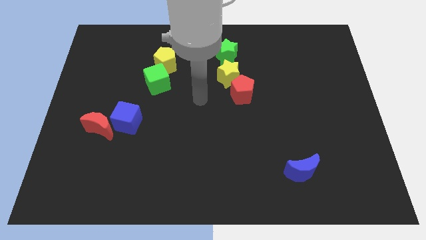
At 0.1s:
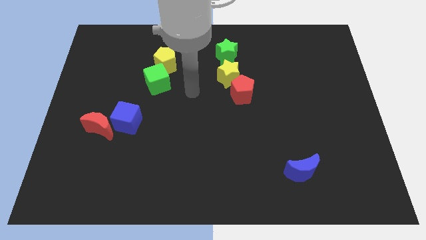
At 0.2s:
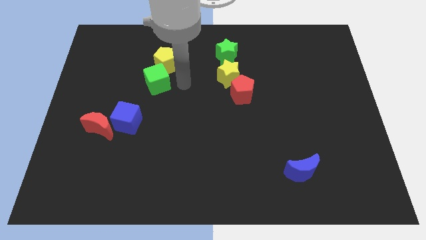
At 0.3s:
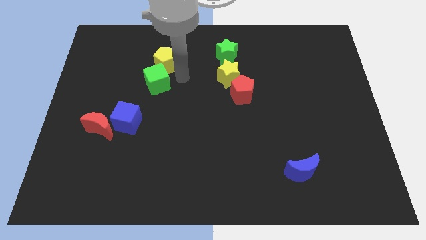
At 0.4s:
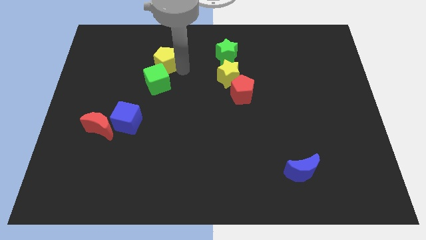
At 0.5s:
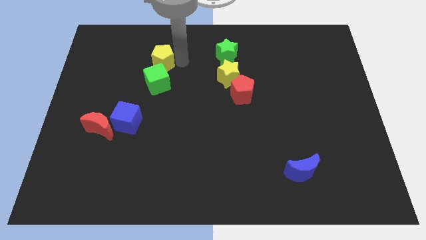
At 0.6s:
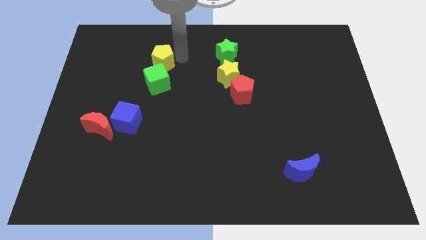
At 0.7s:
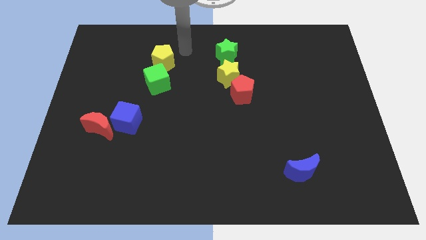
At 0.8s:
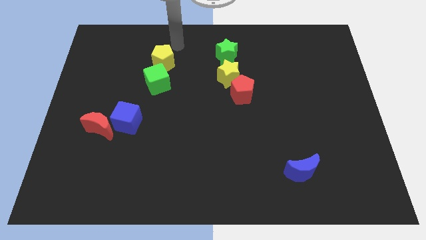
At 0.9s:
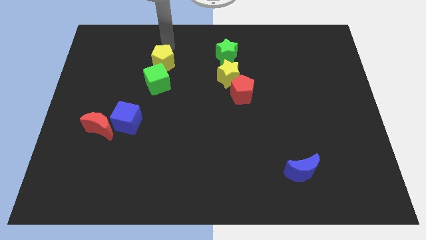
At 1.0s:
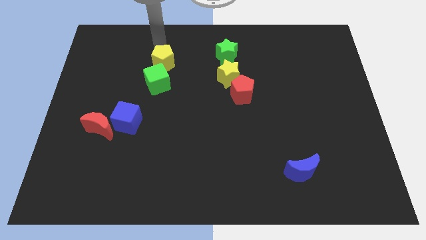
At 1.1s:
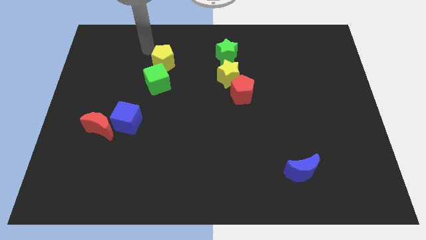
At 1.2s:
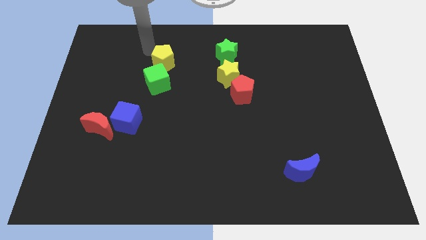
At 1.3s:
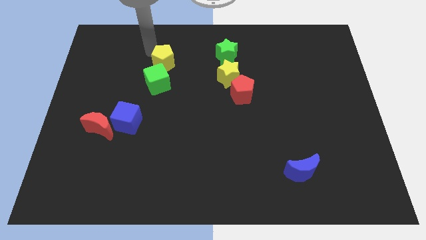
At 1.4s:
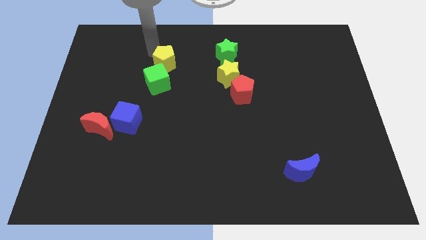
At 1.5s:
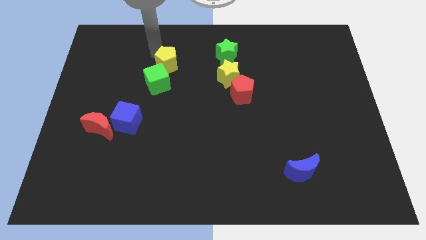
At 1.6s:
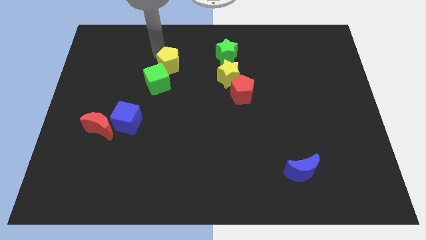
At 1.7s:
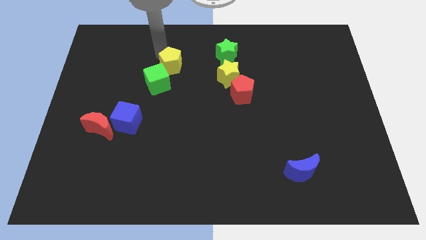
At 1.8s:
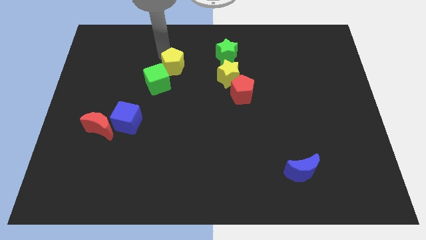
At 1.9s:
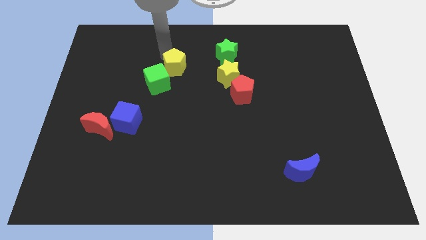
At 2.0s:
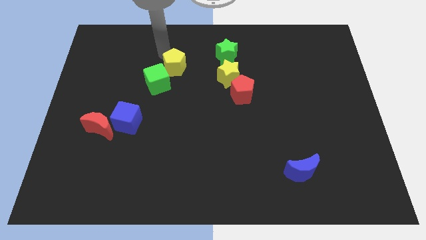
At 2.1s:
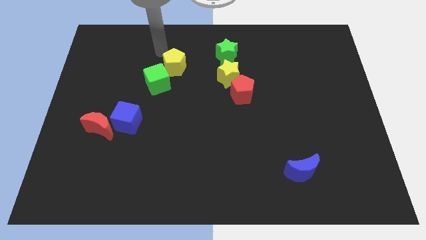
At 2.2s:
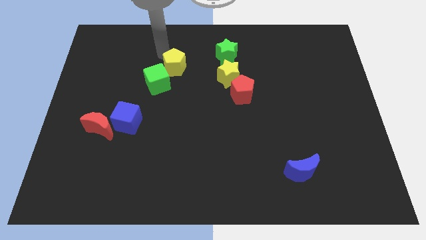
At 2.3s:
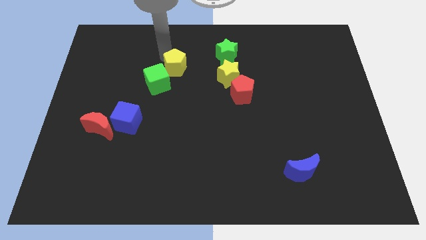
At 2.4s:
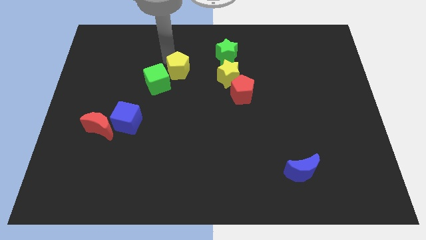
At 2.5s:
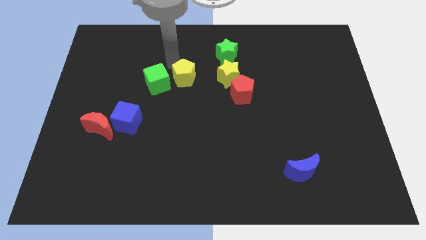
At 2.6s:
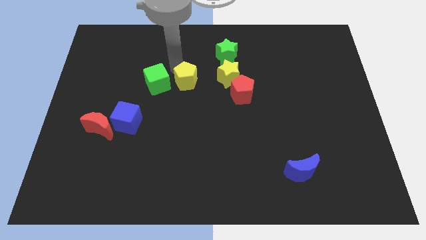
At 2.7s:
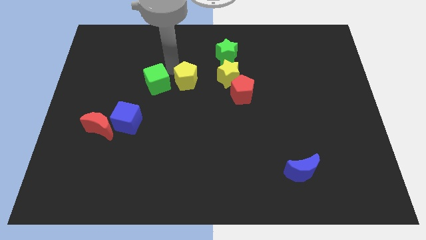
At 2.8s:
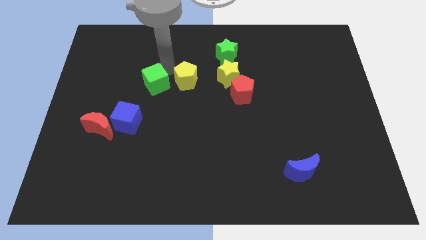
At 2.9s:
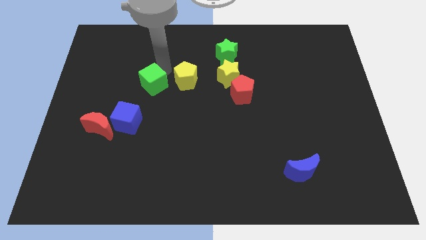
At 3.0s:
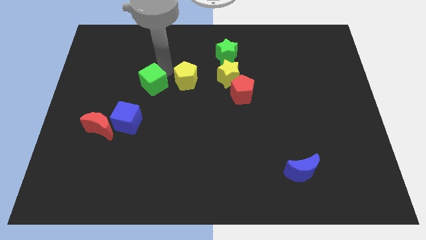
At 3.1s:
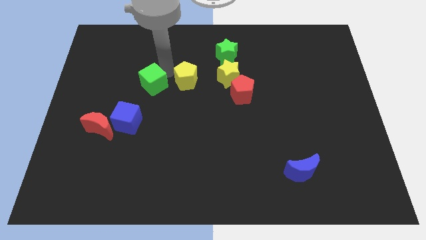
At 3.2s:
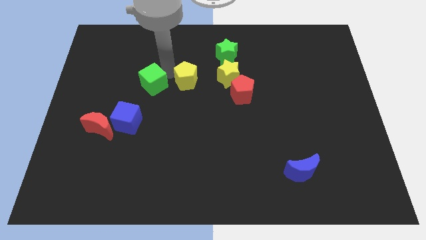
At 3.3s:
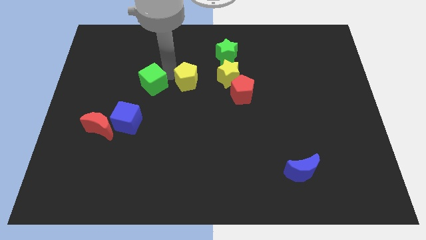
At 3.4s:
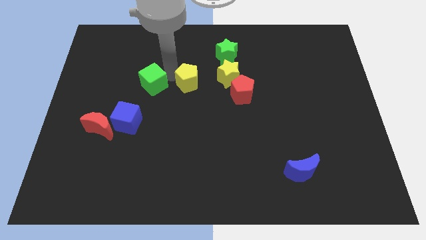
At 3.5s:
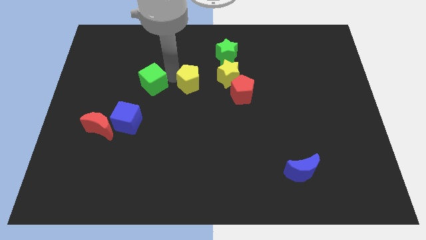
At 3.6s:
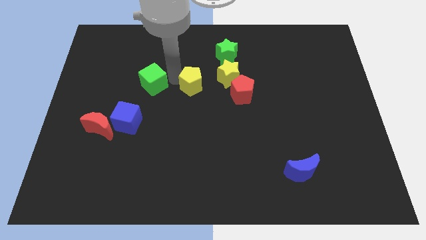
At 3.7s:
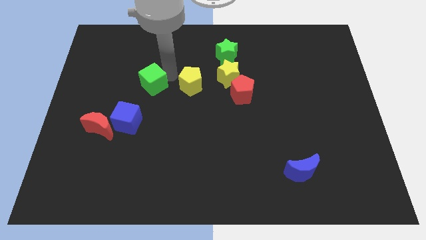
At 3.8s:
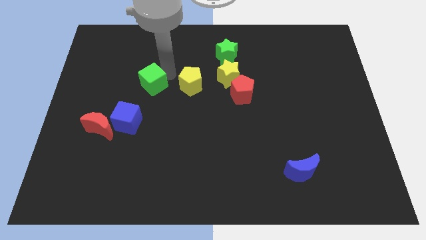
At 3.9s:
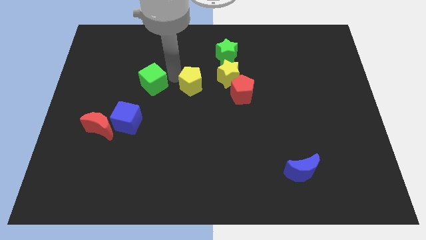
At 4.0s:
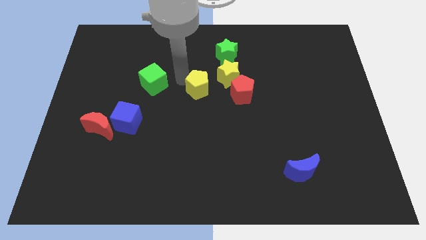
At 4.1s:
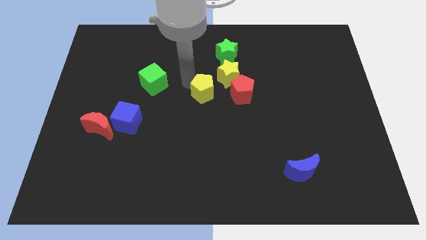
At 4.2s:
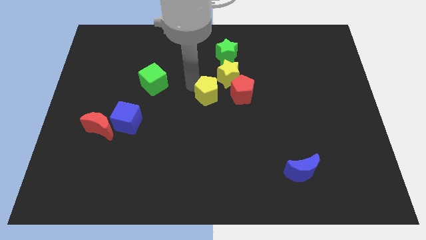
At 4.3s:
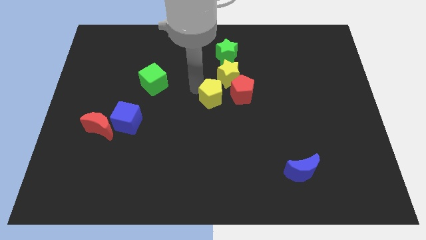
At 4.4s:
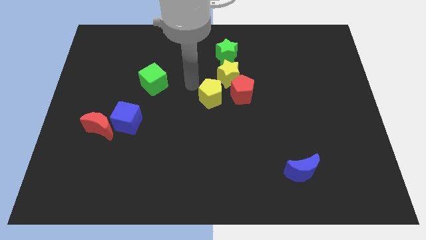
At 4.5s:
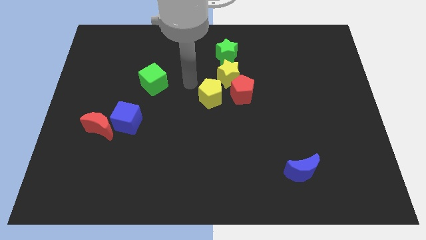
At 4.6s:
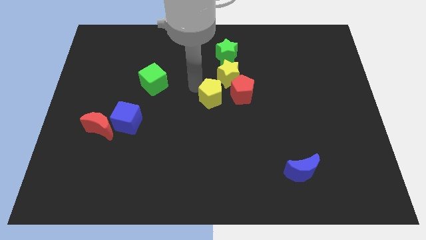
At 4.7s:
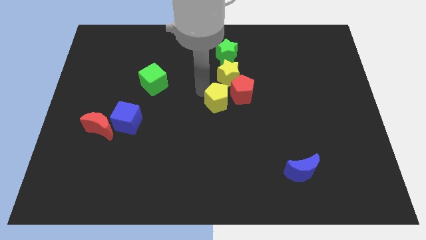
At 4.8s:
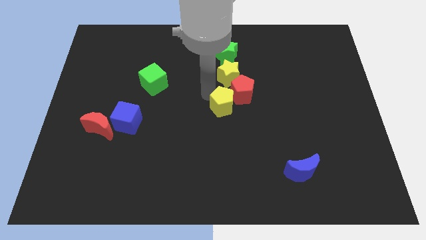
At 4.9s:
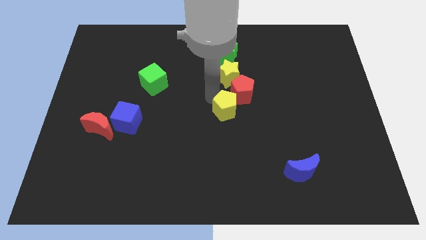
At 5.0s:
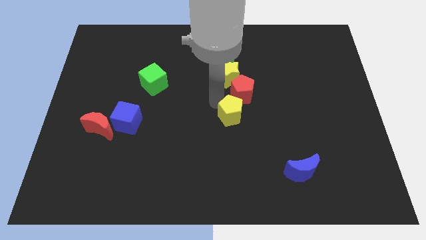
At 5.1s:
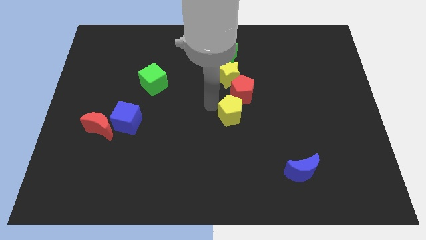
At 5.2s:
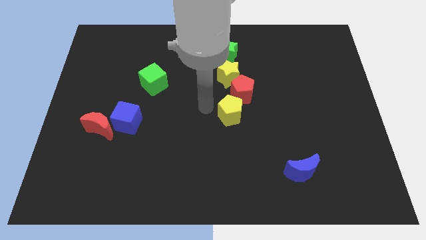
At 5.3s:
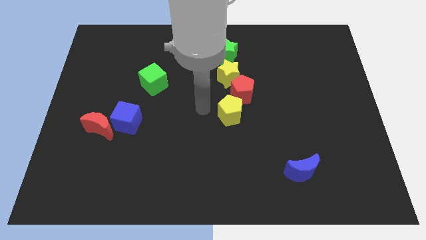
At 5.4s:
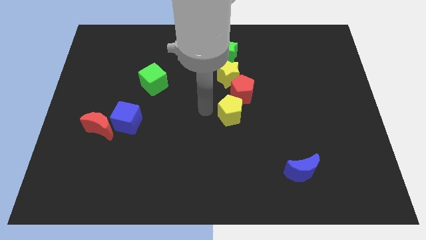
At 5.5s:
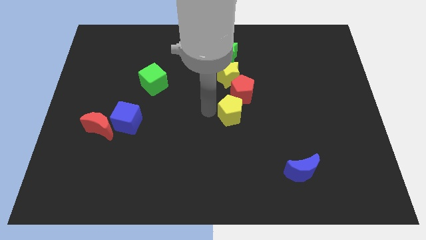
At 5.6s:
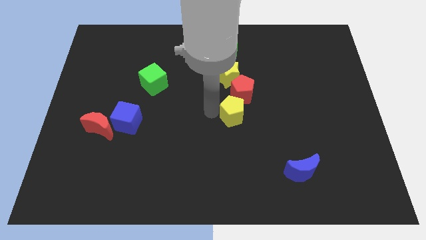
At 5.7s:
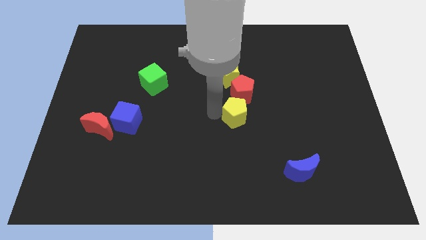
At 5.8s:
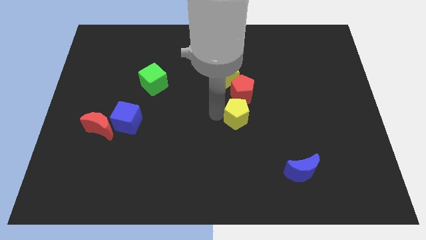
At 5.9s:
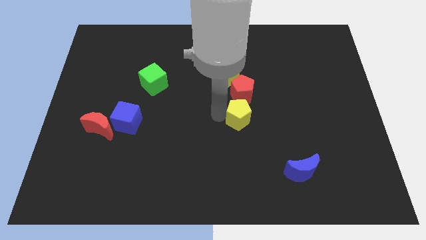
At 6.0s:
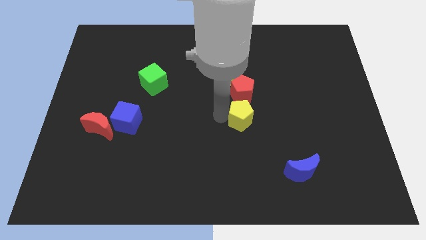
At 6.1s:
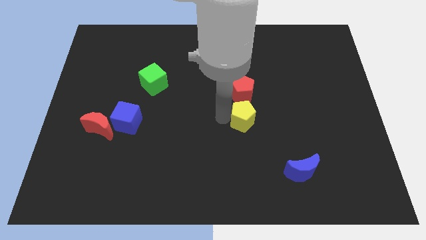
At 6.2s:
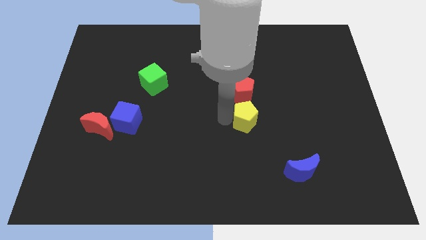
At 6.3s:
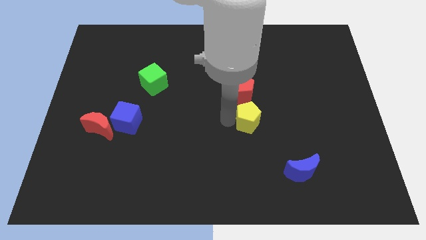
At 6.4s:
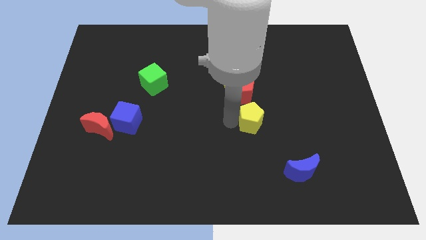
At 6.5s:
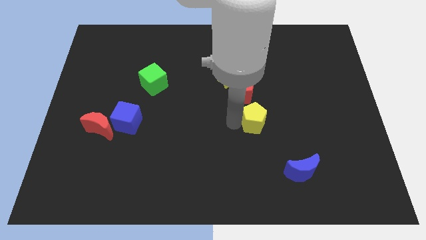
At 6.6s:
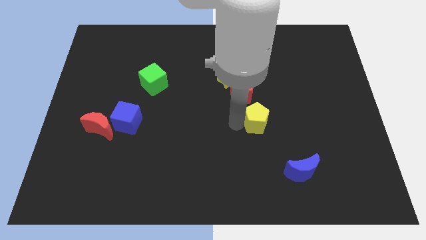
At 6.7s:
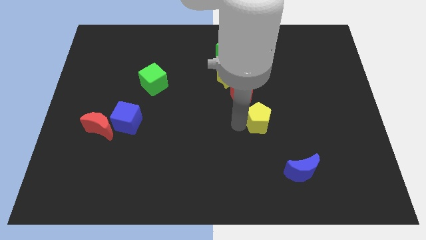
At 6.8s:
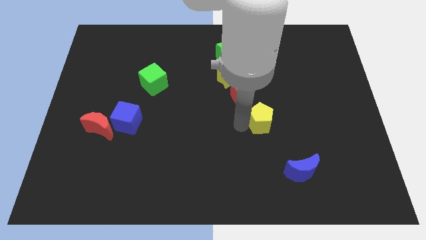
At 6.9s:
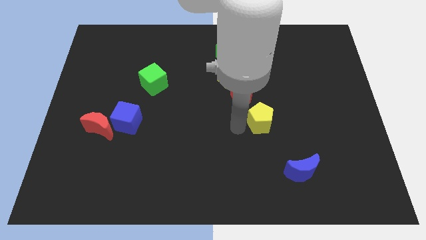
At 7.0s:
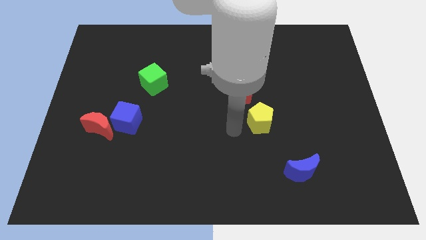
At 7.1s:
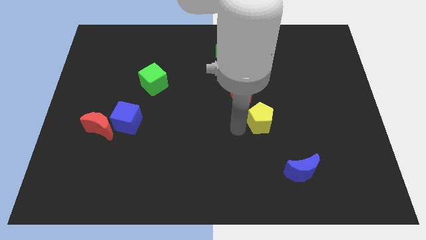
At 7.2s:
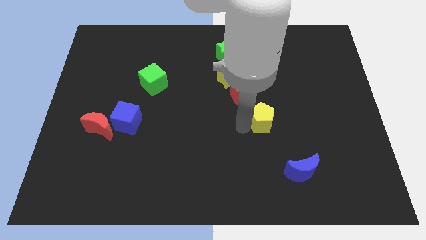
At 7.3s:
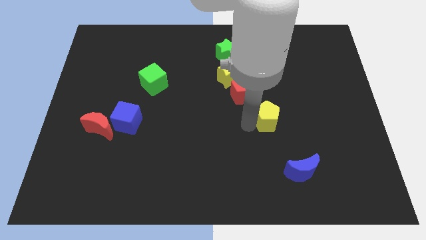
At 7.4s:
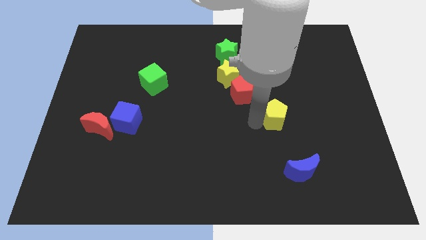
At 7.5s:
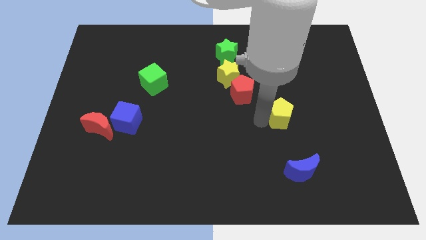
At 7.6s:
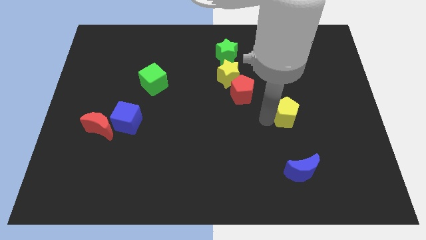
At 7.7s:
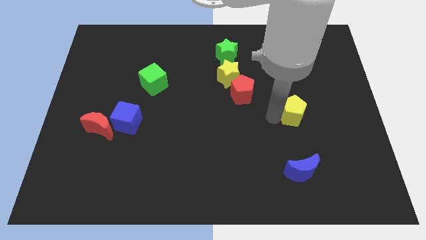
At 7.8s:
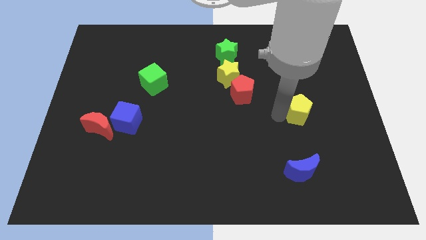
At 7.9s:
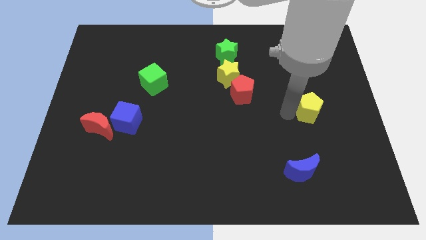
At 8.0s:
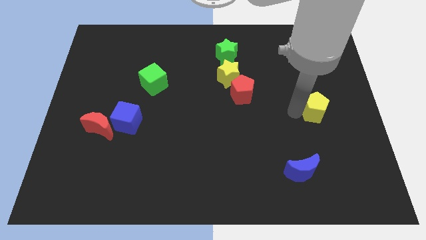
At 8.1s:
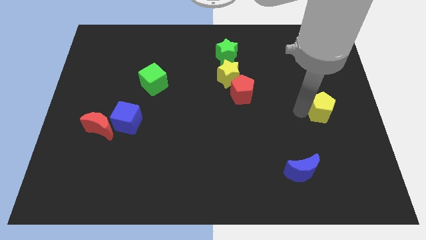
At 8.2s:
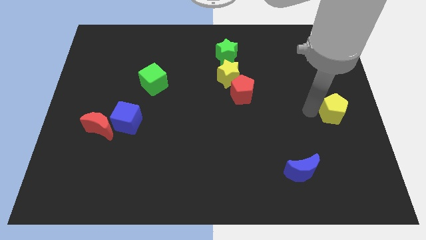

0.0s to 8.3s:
move the yellow pentagon to the right side of the board
